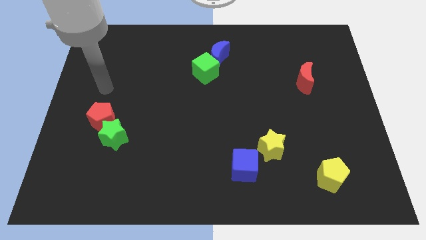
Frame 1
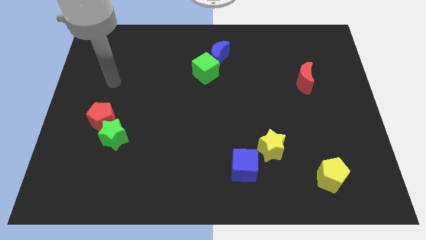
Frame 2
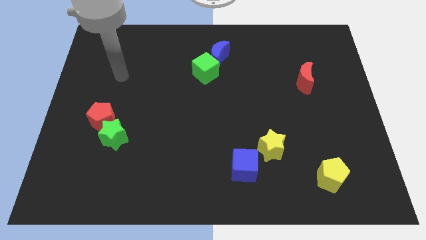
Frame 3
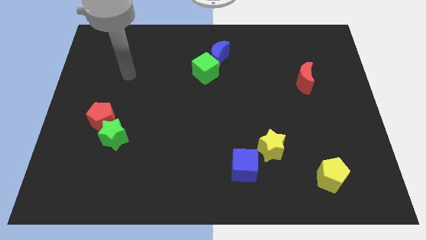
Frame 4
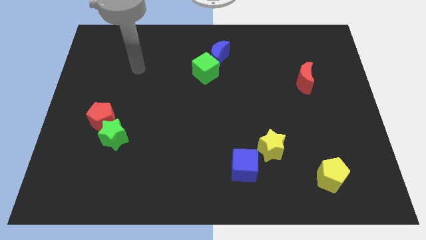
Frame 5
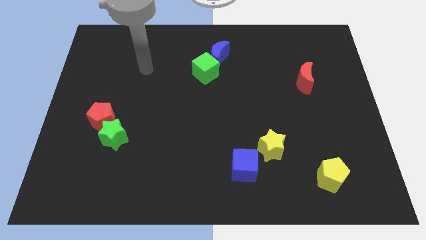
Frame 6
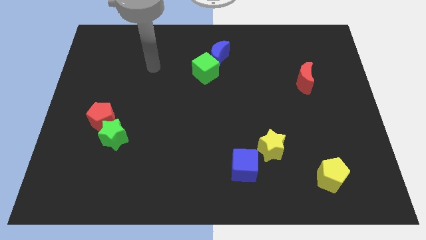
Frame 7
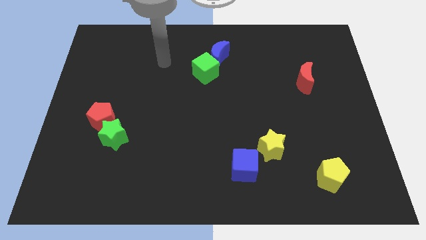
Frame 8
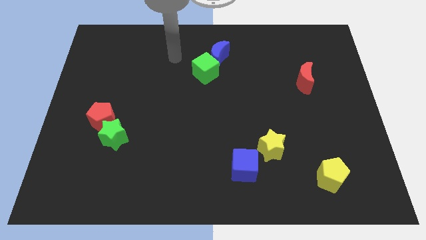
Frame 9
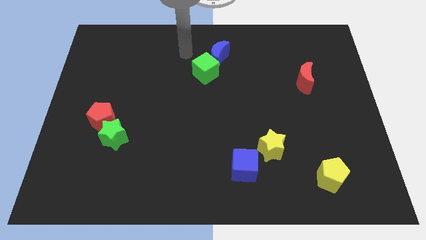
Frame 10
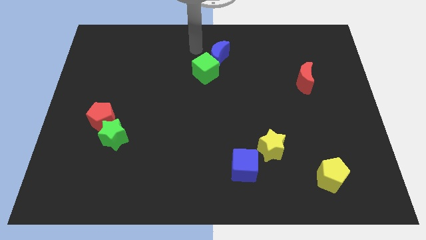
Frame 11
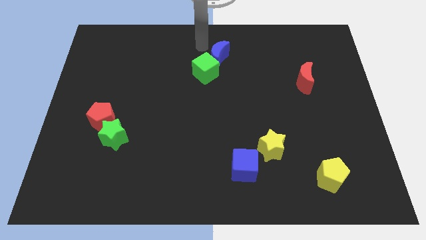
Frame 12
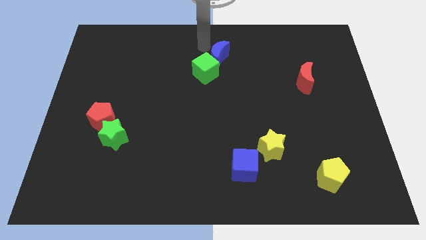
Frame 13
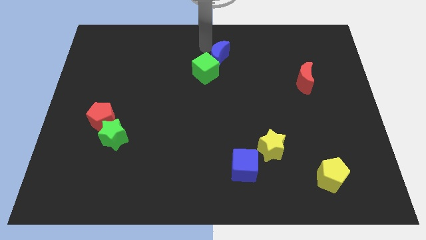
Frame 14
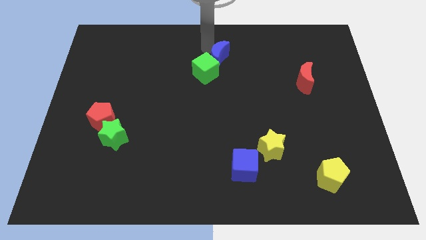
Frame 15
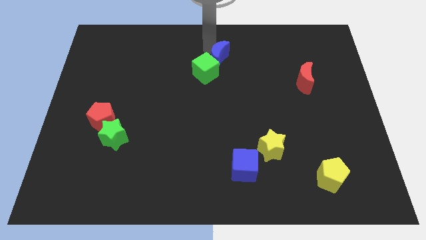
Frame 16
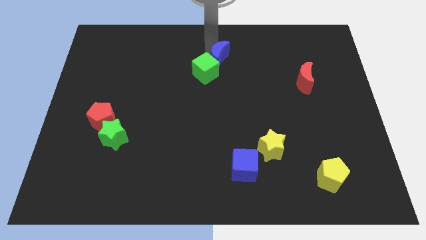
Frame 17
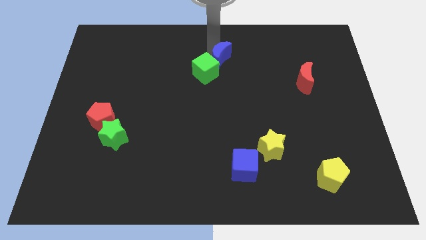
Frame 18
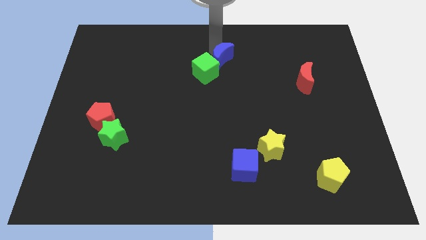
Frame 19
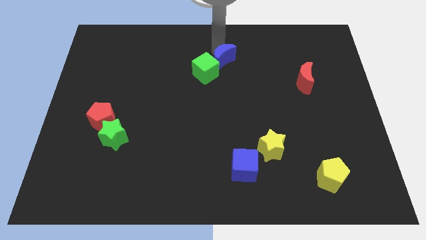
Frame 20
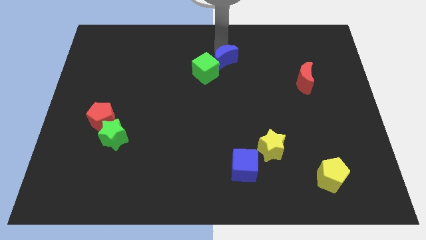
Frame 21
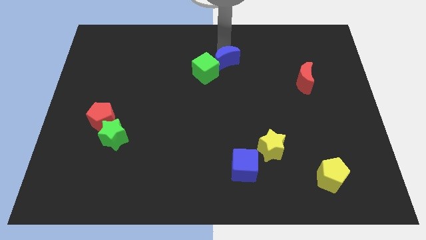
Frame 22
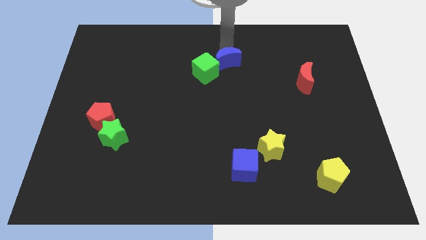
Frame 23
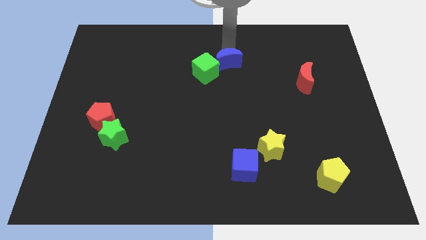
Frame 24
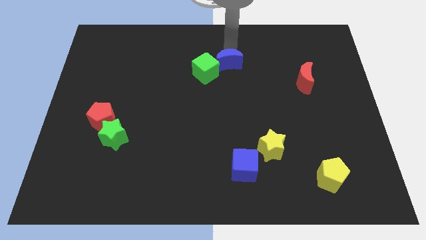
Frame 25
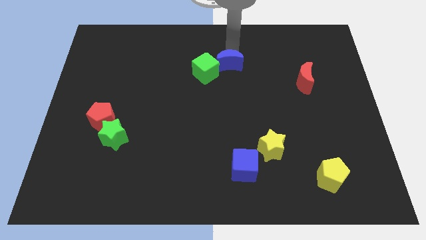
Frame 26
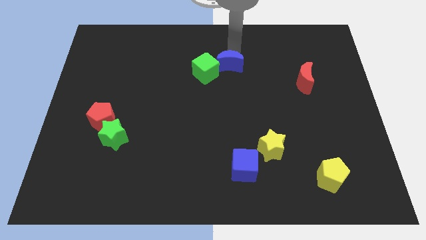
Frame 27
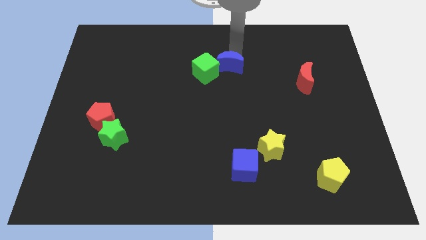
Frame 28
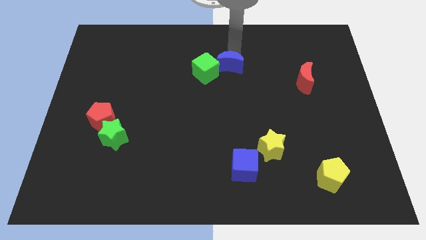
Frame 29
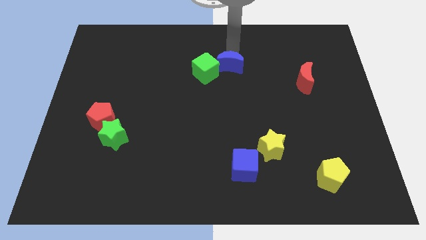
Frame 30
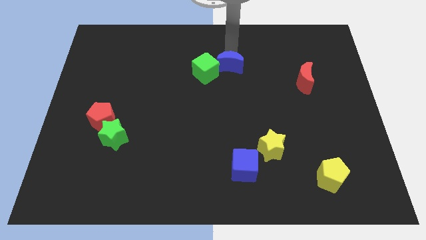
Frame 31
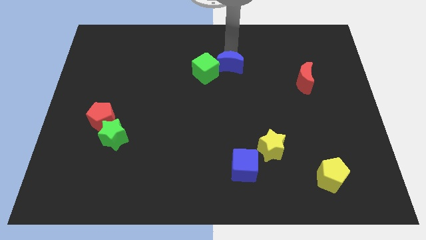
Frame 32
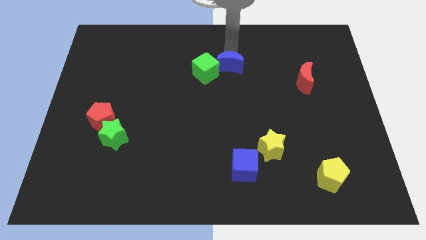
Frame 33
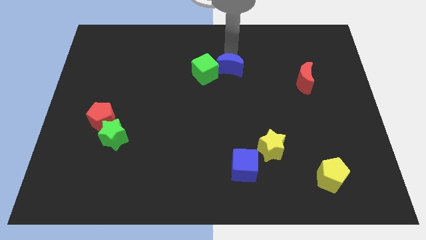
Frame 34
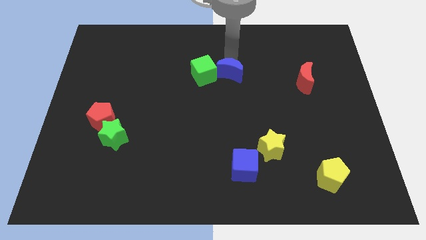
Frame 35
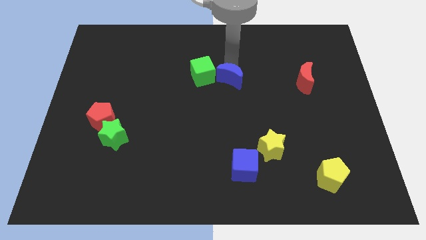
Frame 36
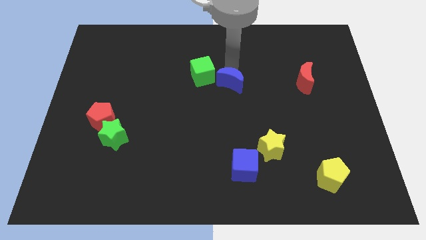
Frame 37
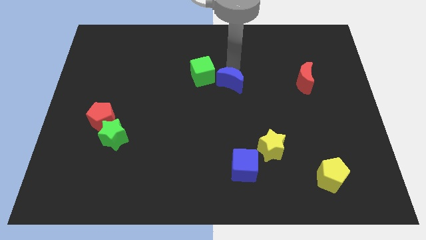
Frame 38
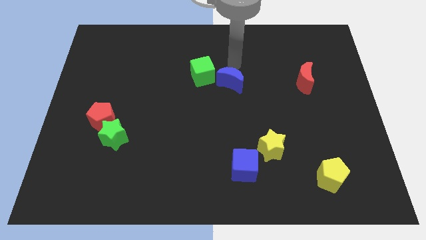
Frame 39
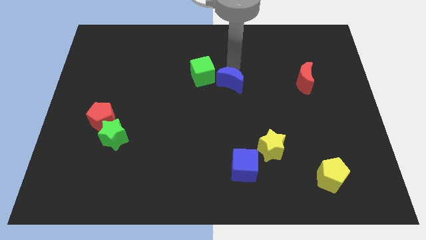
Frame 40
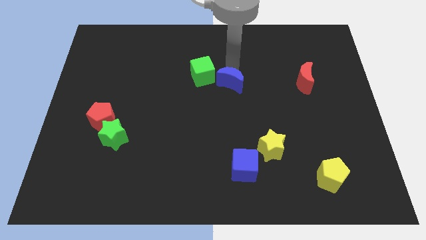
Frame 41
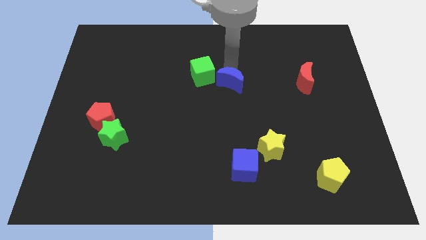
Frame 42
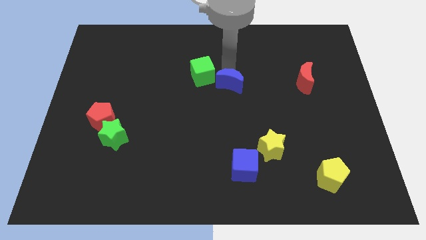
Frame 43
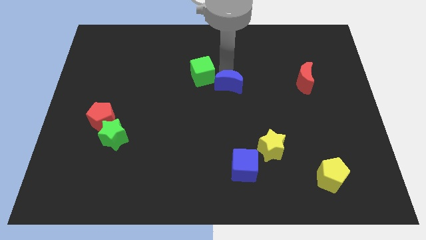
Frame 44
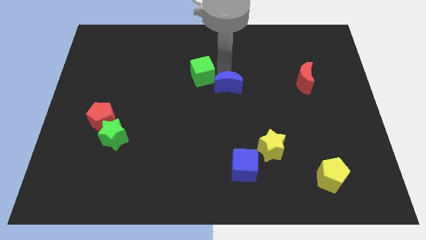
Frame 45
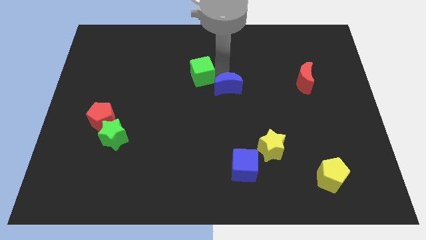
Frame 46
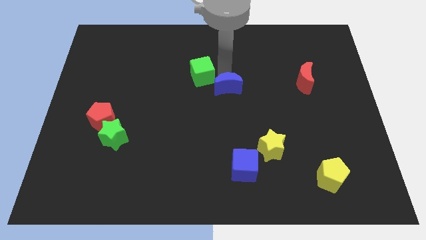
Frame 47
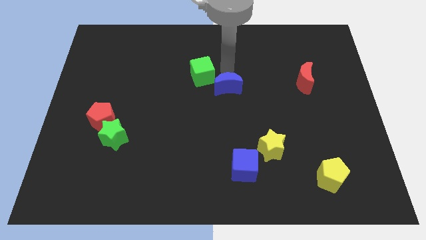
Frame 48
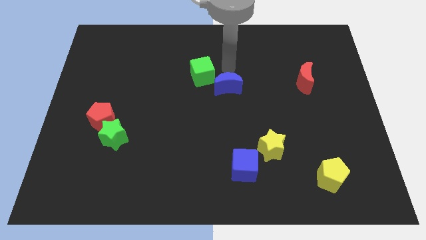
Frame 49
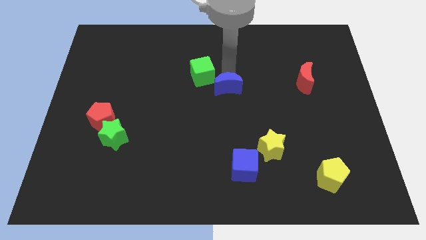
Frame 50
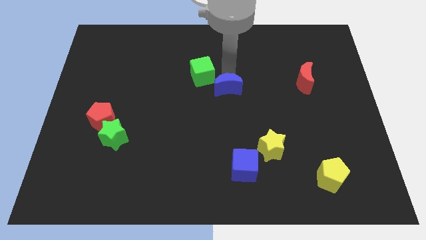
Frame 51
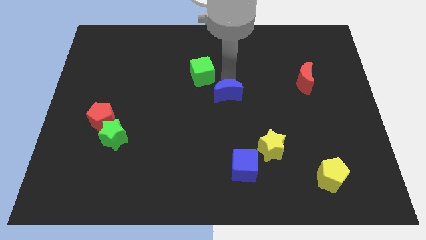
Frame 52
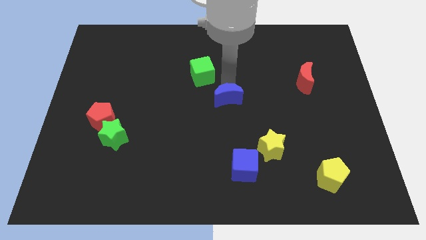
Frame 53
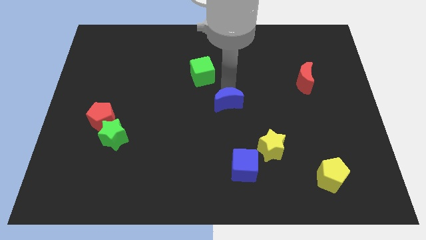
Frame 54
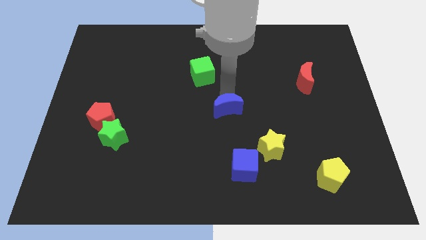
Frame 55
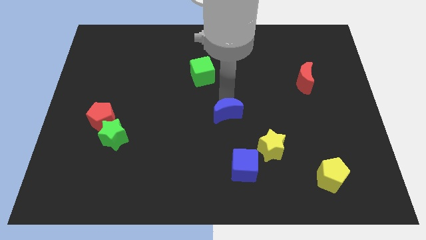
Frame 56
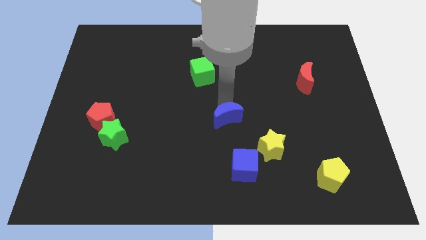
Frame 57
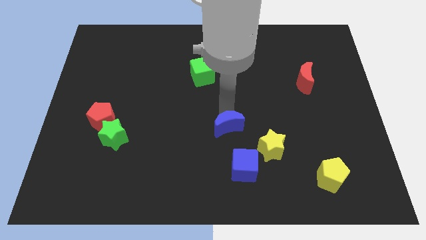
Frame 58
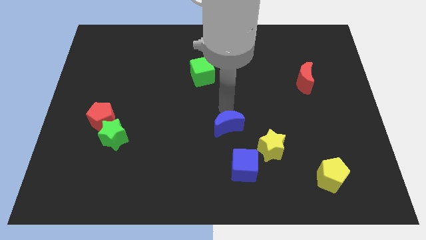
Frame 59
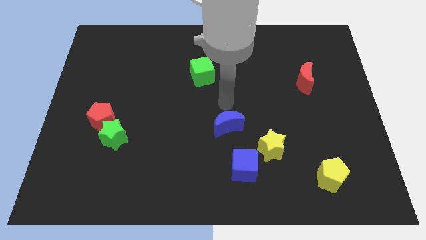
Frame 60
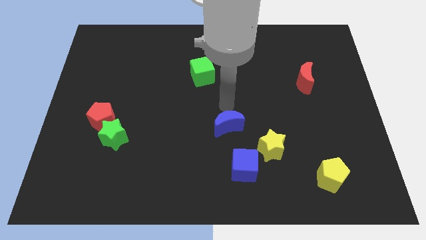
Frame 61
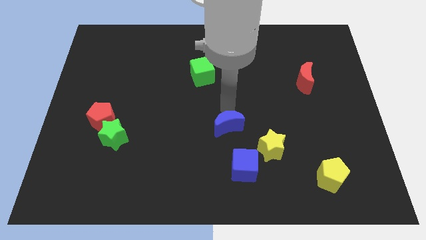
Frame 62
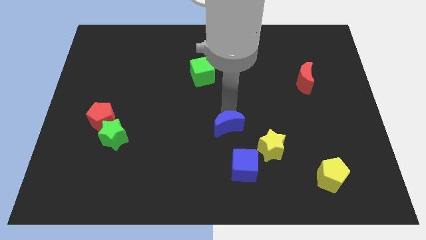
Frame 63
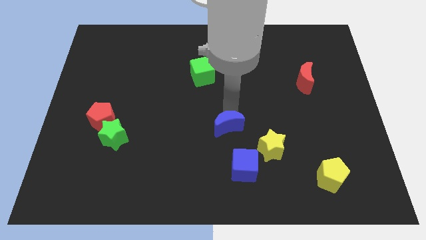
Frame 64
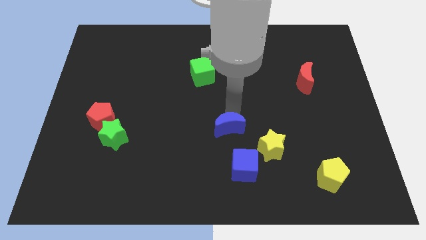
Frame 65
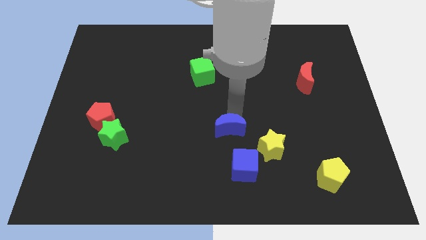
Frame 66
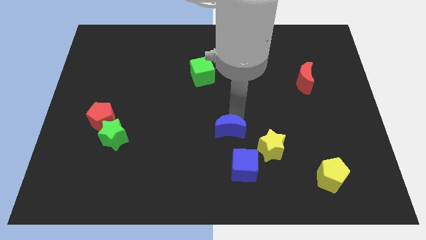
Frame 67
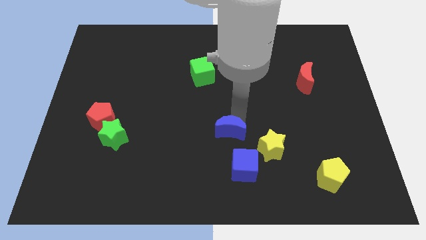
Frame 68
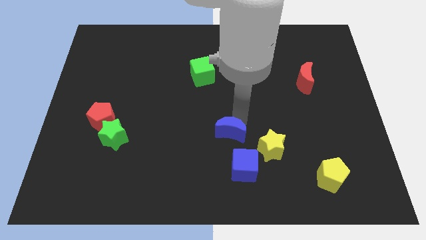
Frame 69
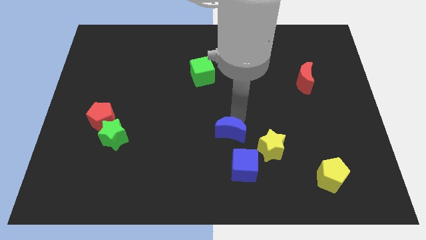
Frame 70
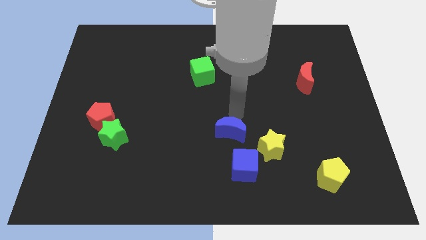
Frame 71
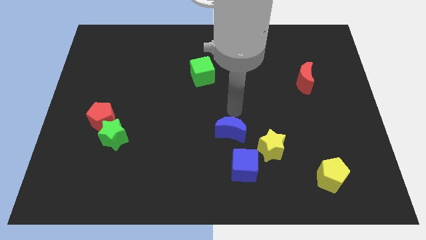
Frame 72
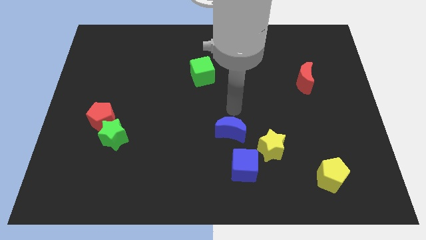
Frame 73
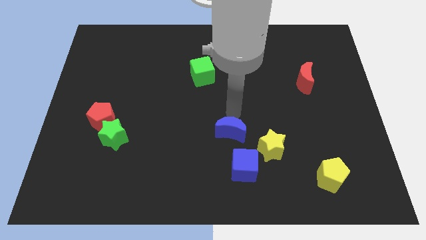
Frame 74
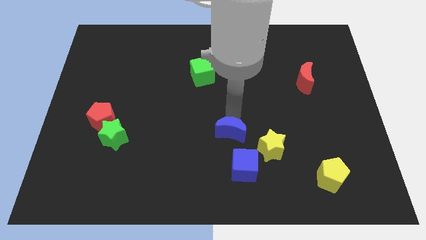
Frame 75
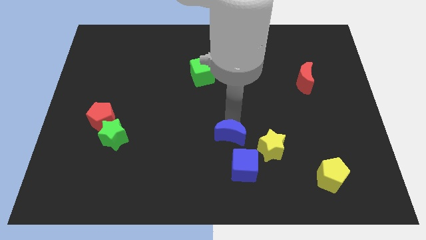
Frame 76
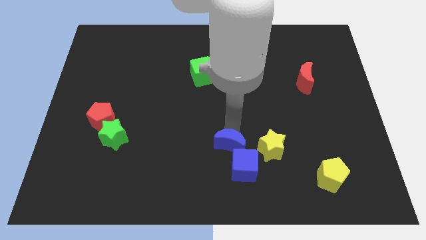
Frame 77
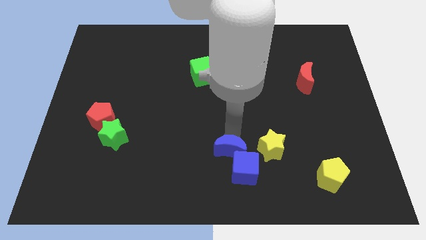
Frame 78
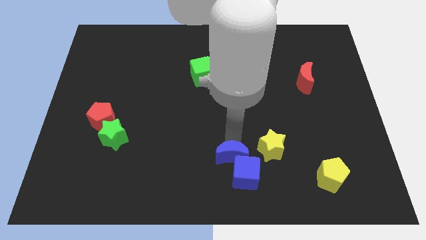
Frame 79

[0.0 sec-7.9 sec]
move the blue moon to the bottom
